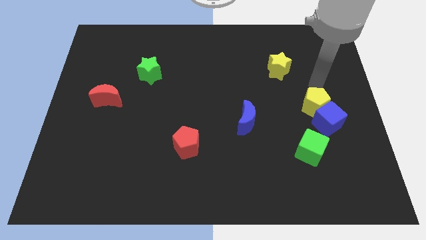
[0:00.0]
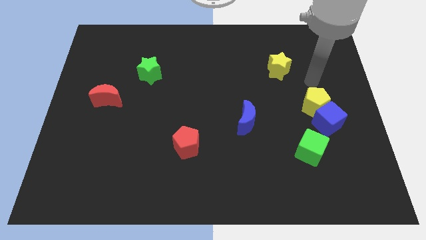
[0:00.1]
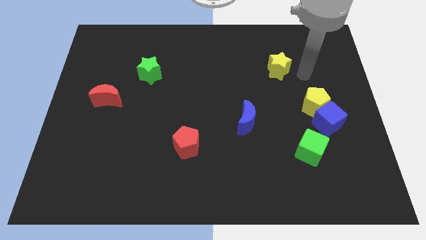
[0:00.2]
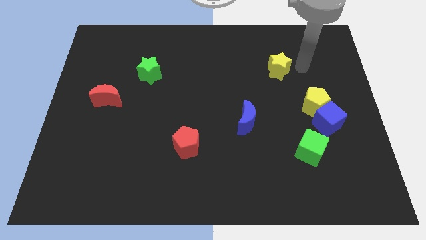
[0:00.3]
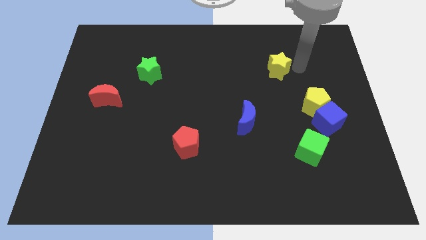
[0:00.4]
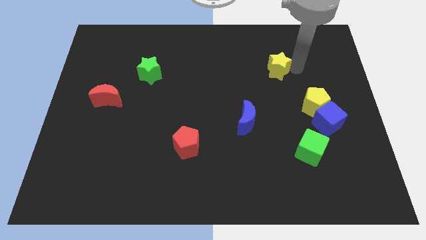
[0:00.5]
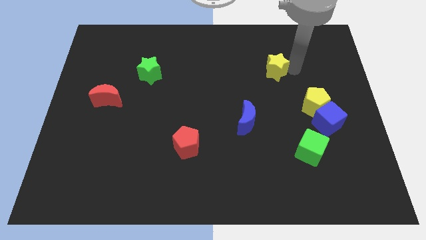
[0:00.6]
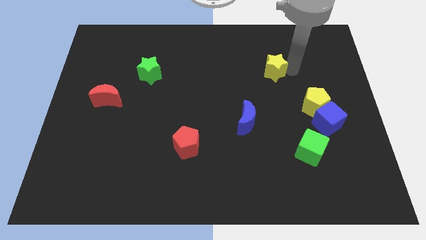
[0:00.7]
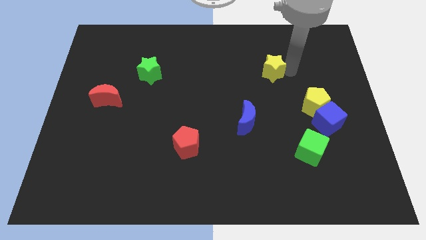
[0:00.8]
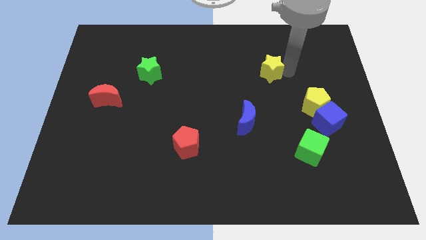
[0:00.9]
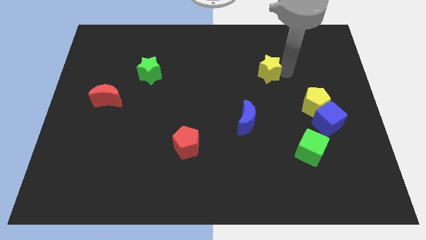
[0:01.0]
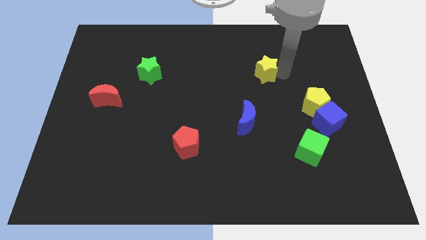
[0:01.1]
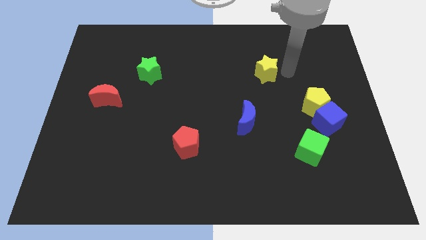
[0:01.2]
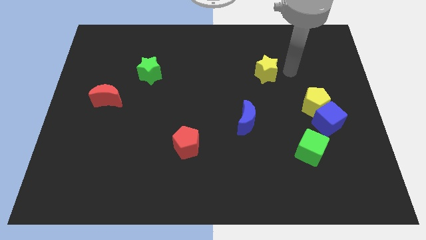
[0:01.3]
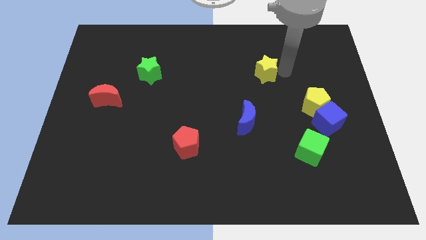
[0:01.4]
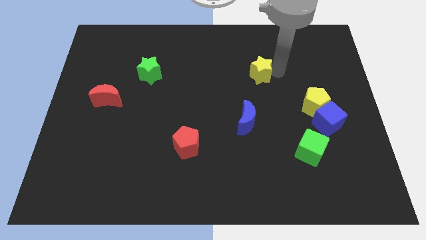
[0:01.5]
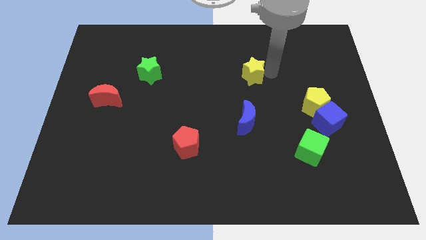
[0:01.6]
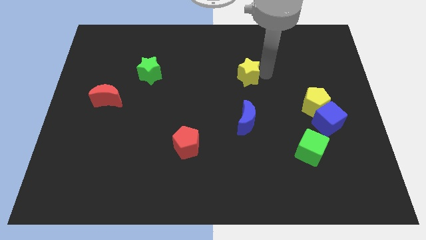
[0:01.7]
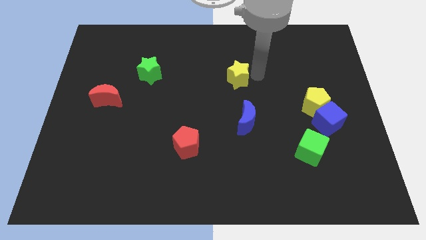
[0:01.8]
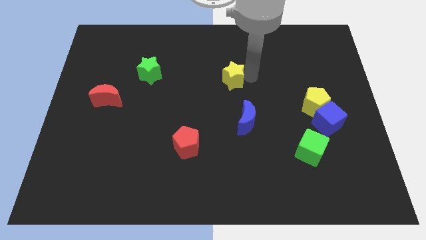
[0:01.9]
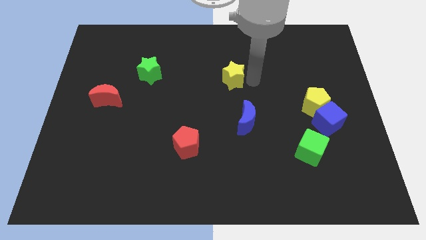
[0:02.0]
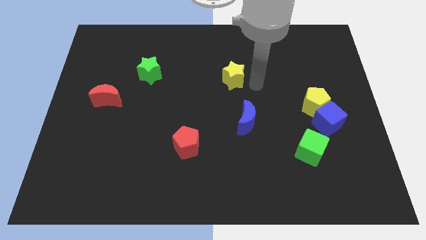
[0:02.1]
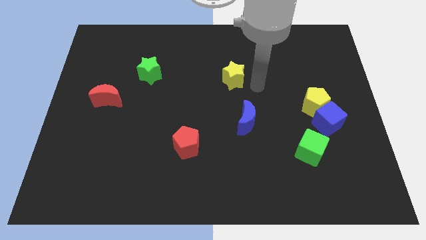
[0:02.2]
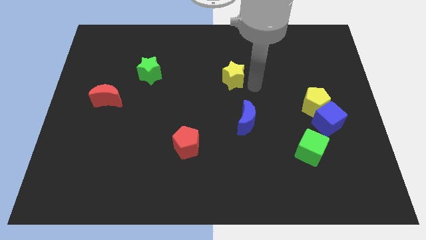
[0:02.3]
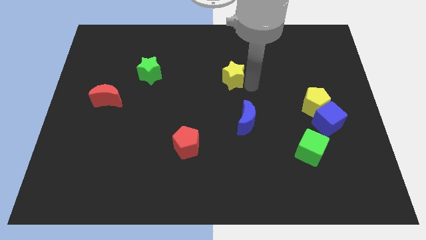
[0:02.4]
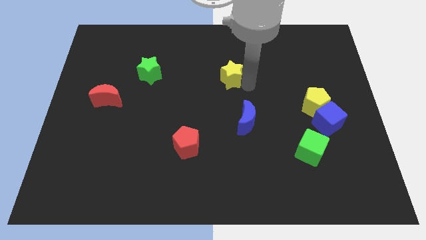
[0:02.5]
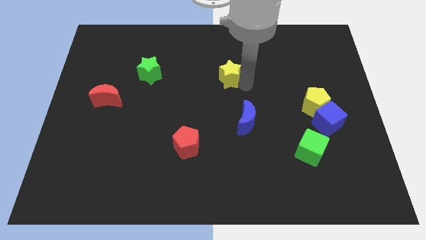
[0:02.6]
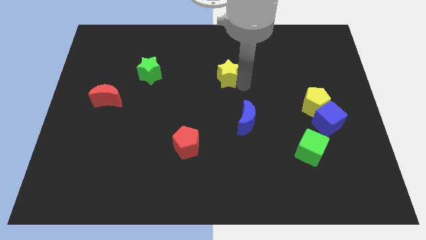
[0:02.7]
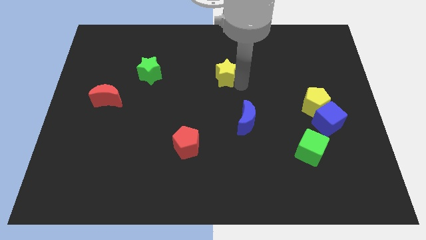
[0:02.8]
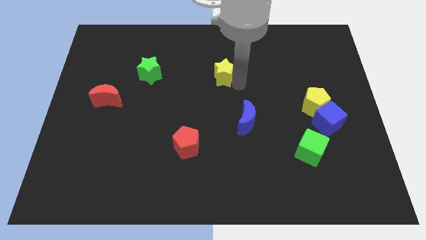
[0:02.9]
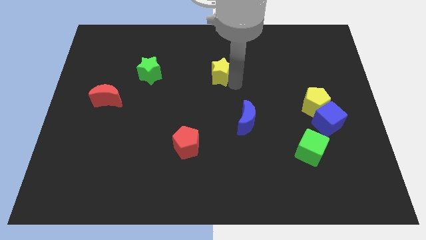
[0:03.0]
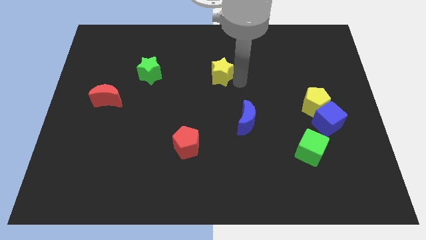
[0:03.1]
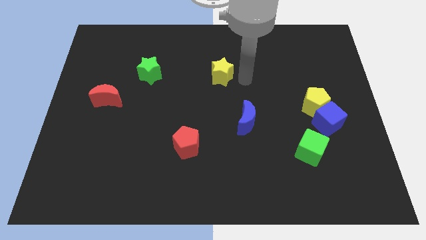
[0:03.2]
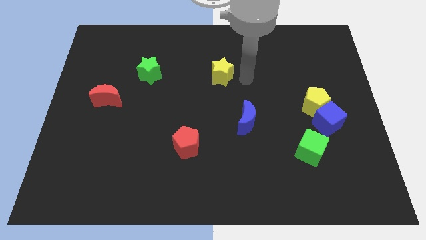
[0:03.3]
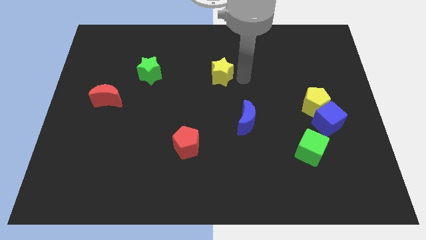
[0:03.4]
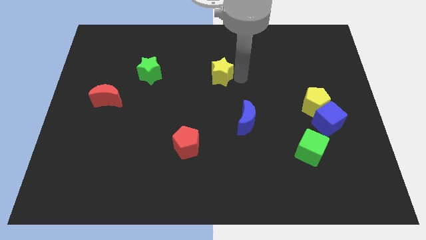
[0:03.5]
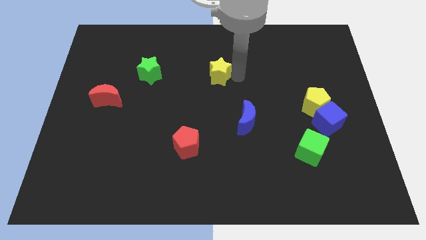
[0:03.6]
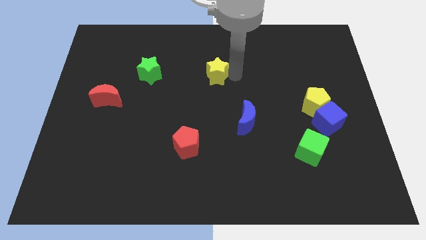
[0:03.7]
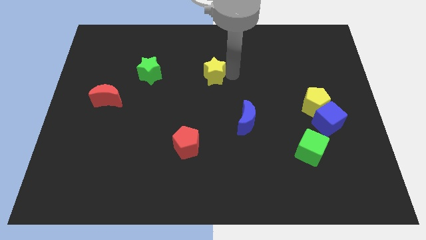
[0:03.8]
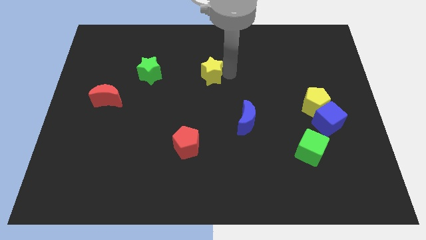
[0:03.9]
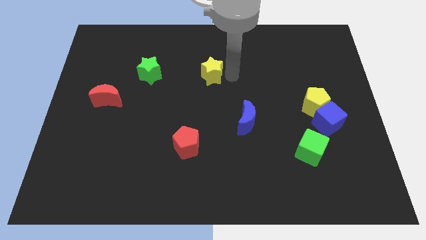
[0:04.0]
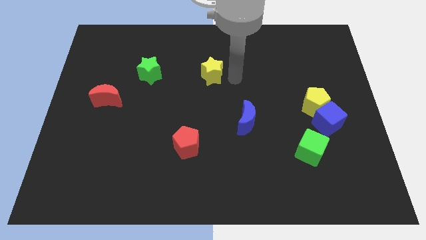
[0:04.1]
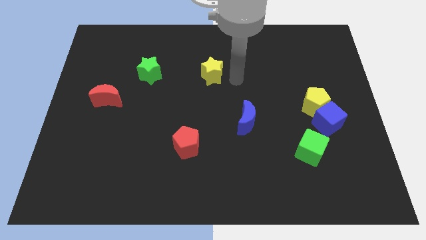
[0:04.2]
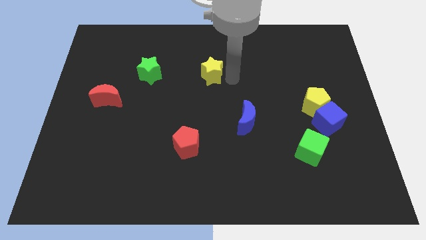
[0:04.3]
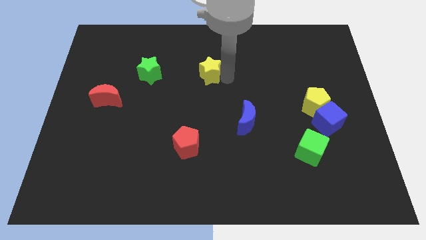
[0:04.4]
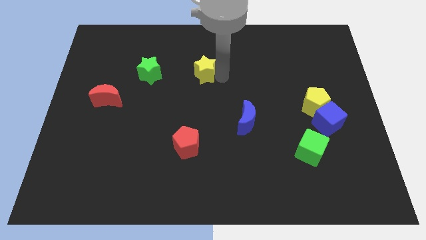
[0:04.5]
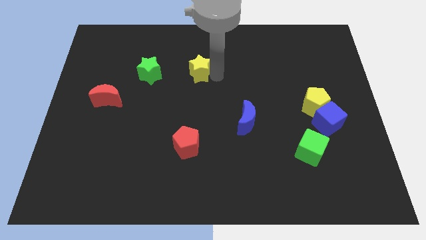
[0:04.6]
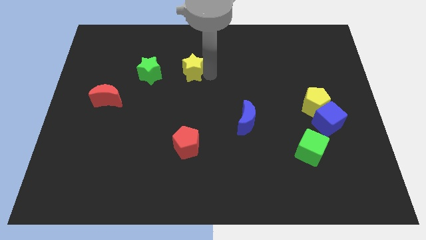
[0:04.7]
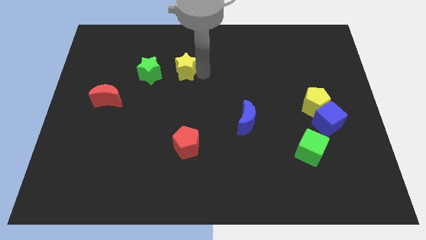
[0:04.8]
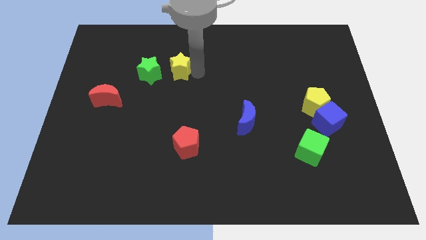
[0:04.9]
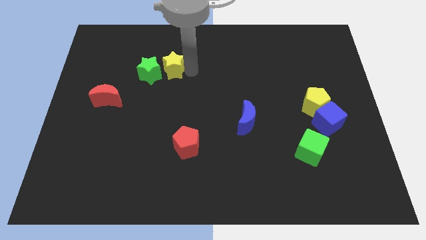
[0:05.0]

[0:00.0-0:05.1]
put the yellow star towards the green star

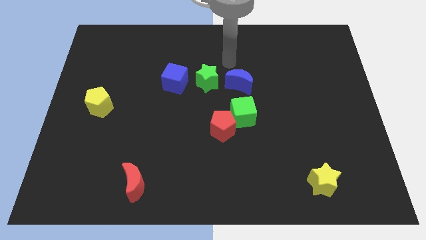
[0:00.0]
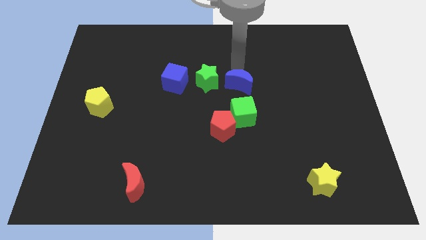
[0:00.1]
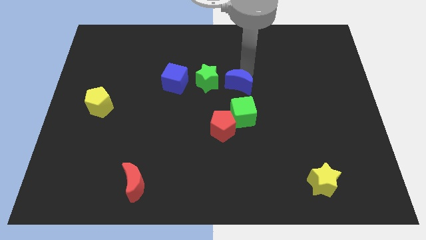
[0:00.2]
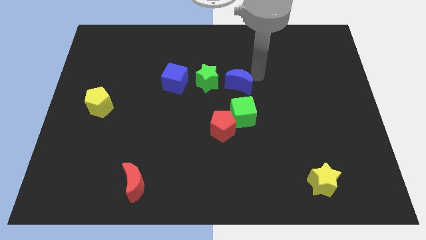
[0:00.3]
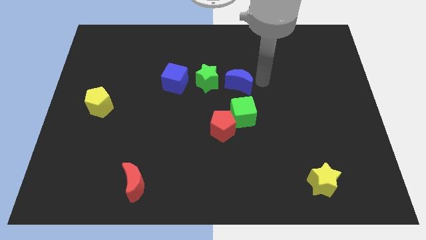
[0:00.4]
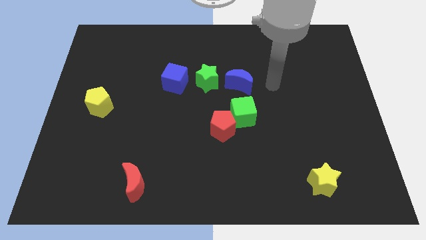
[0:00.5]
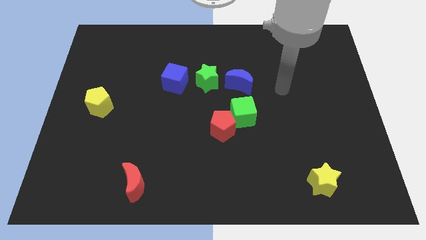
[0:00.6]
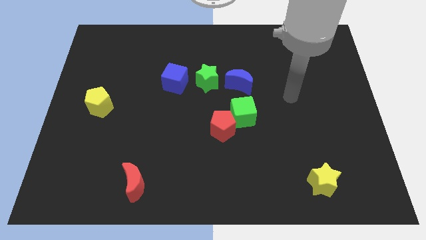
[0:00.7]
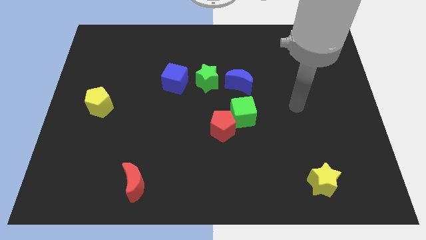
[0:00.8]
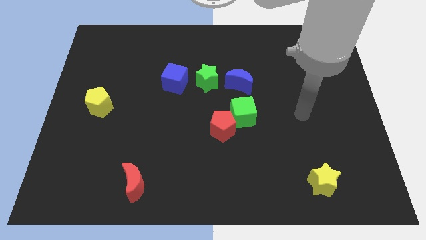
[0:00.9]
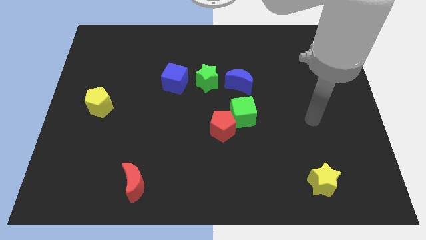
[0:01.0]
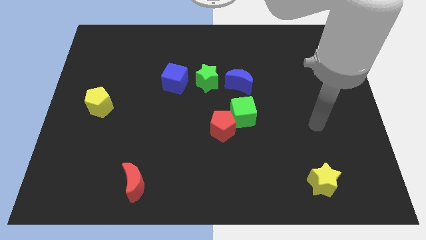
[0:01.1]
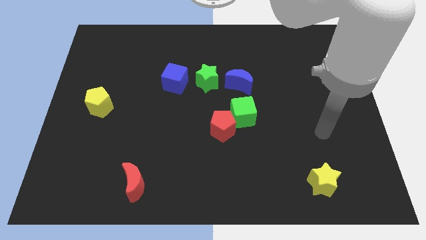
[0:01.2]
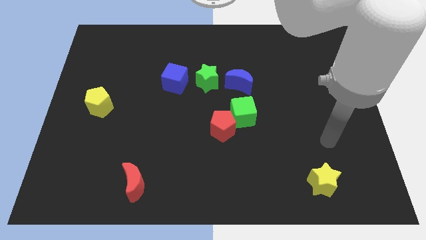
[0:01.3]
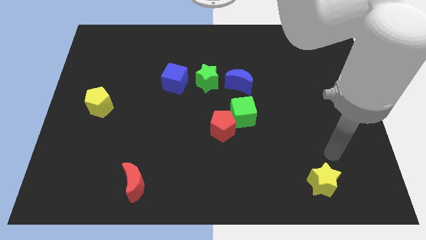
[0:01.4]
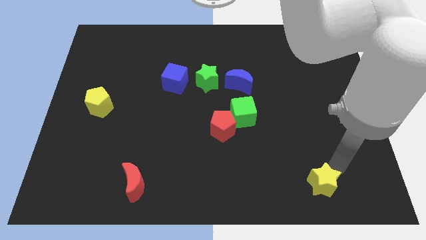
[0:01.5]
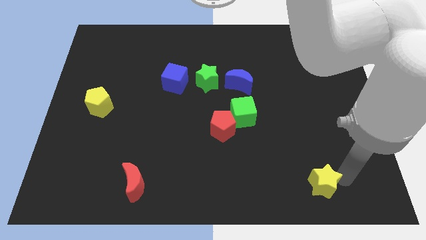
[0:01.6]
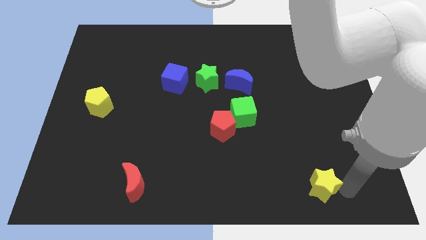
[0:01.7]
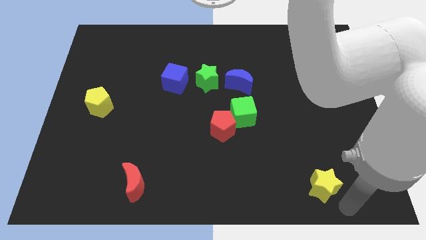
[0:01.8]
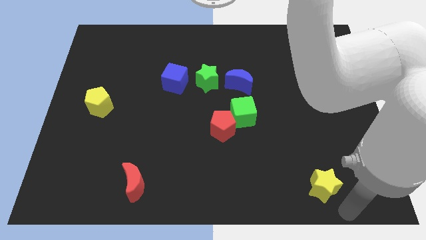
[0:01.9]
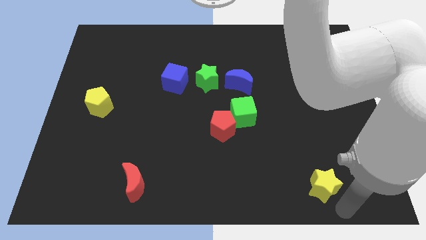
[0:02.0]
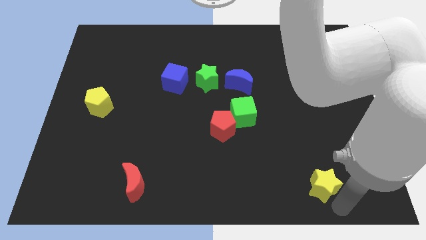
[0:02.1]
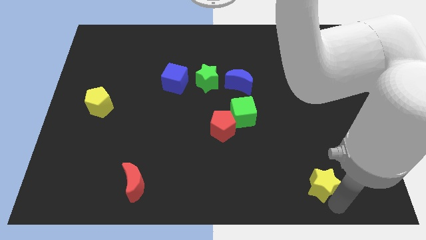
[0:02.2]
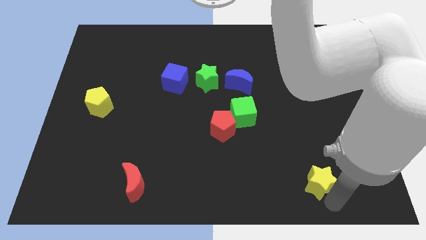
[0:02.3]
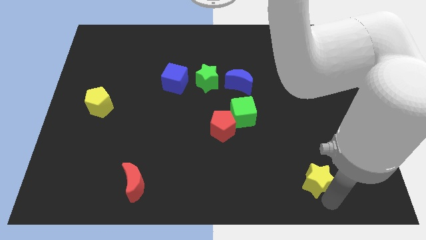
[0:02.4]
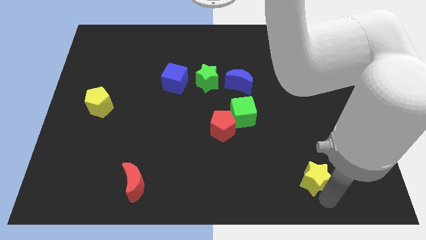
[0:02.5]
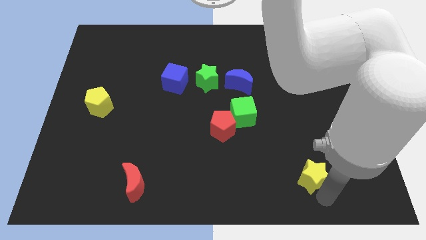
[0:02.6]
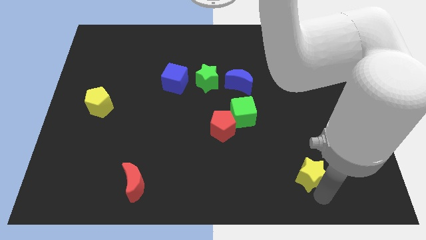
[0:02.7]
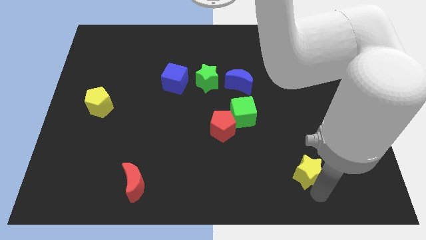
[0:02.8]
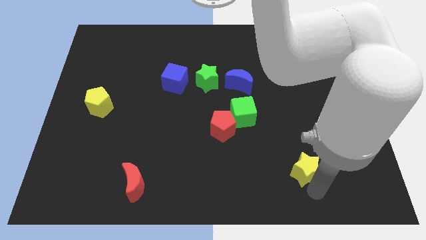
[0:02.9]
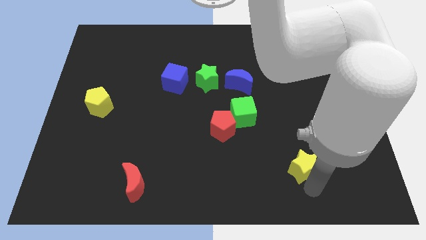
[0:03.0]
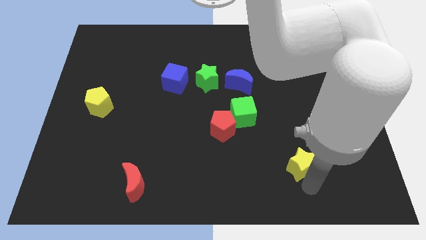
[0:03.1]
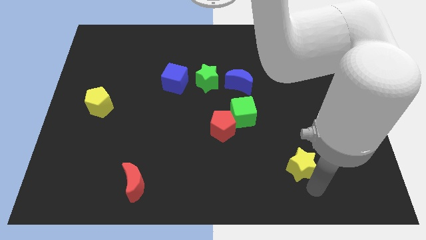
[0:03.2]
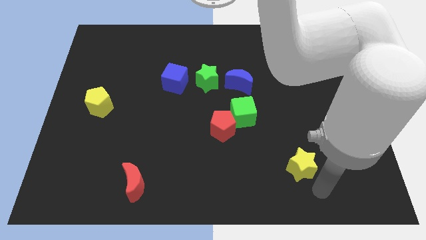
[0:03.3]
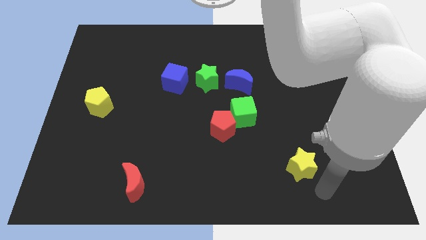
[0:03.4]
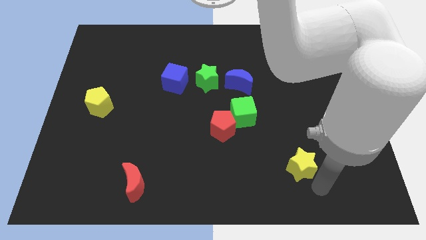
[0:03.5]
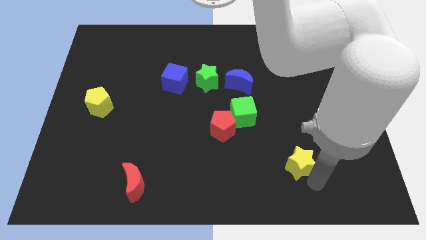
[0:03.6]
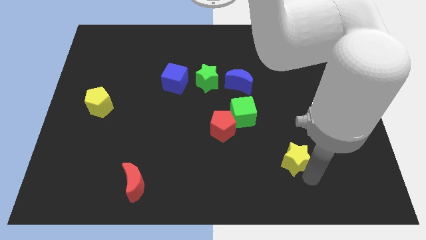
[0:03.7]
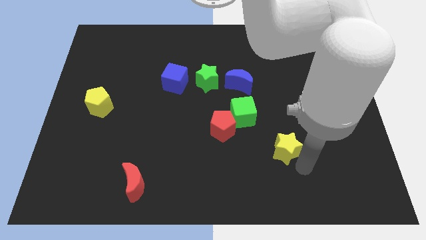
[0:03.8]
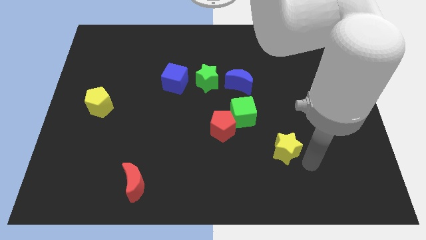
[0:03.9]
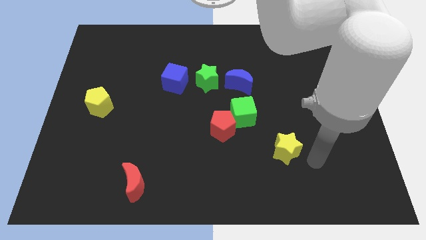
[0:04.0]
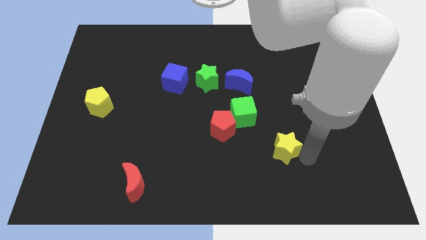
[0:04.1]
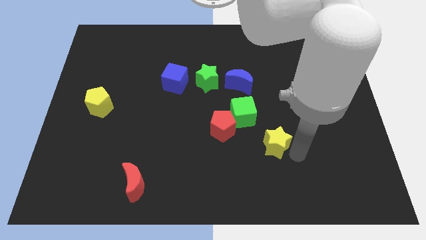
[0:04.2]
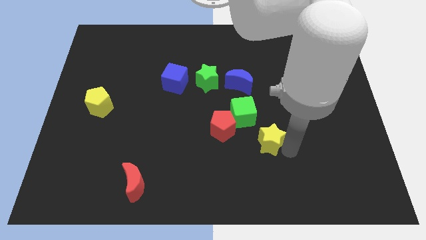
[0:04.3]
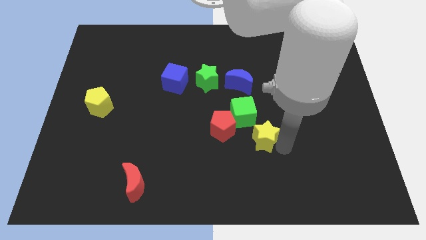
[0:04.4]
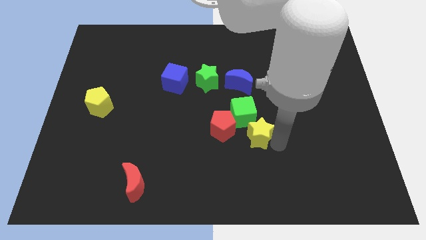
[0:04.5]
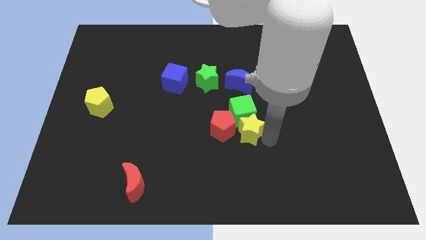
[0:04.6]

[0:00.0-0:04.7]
put the yellow star close to the red pentagon
